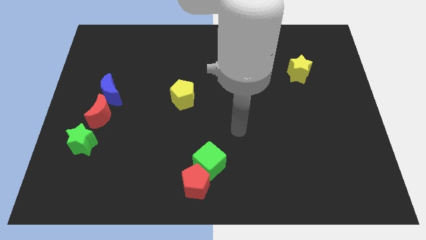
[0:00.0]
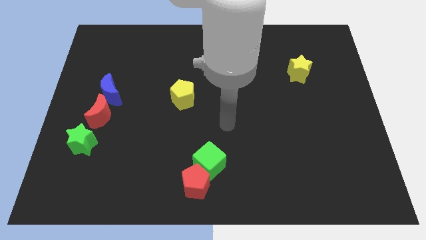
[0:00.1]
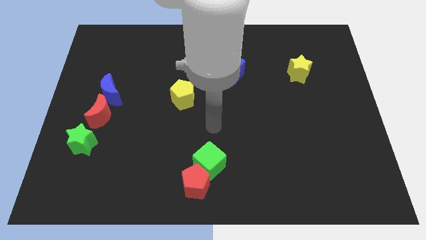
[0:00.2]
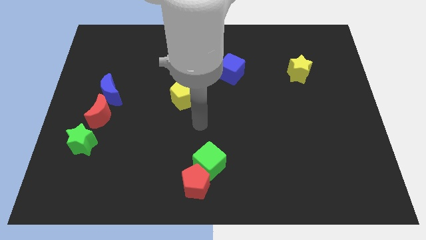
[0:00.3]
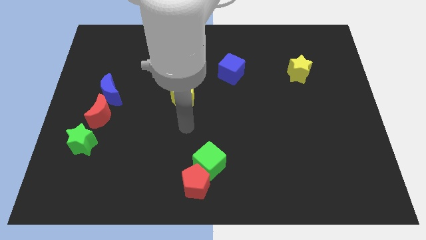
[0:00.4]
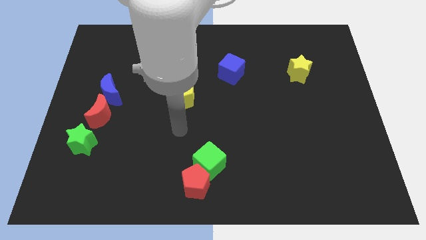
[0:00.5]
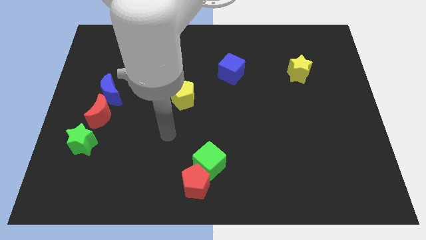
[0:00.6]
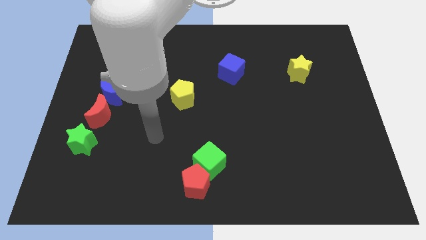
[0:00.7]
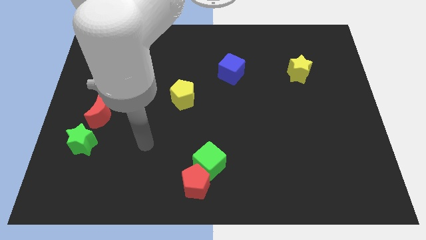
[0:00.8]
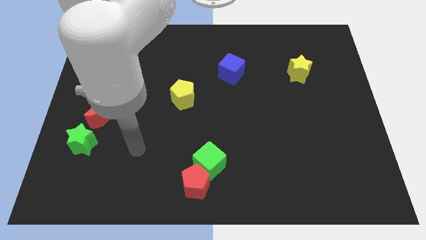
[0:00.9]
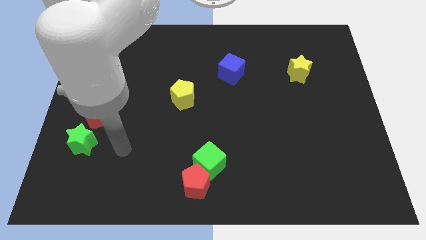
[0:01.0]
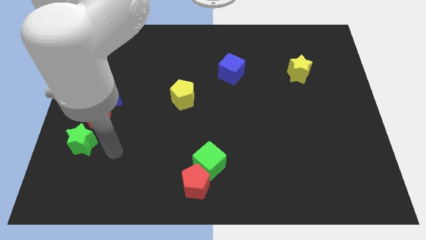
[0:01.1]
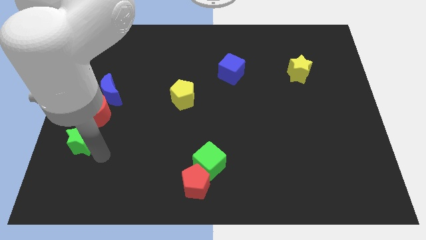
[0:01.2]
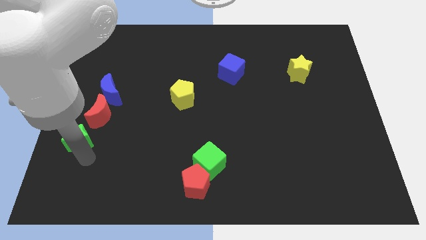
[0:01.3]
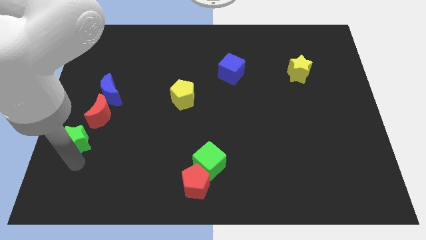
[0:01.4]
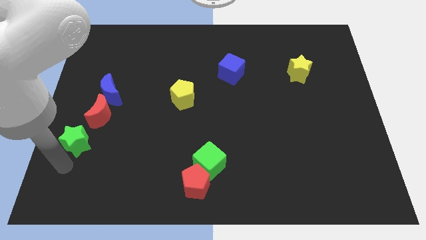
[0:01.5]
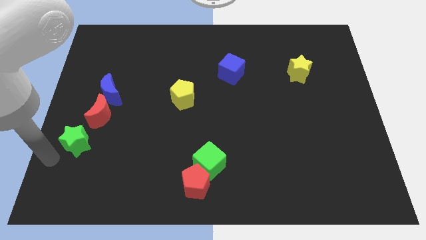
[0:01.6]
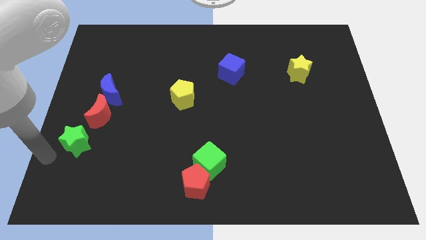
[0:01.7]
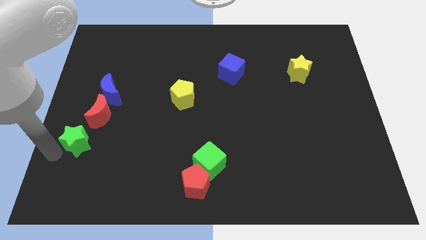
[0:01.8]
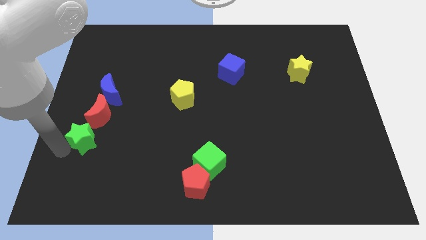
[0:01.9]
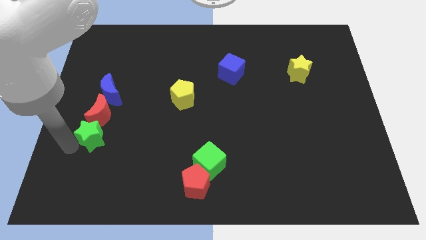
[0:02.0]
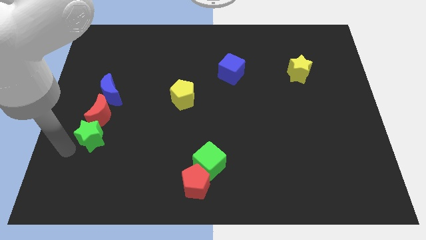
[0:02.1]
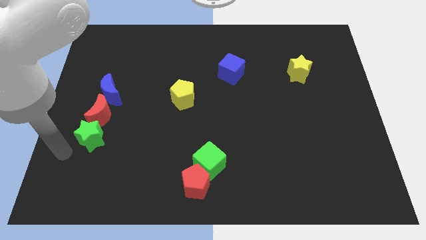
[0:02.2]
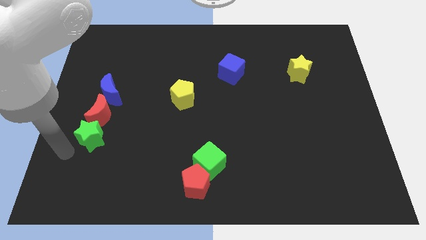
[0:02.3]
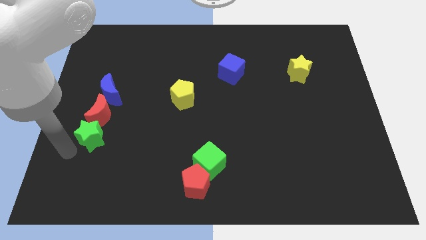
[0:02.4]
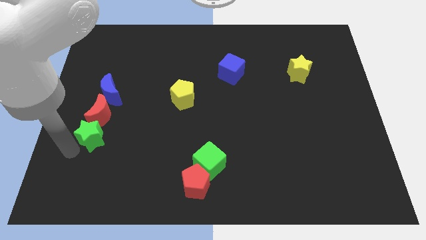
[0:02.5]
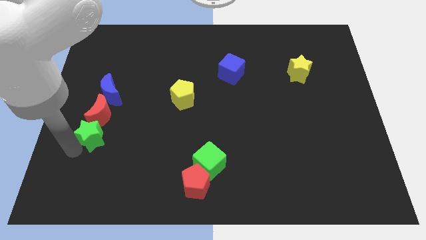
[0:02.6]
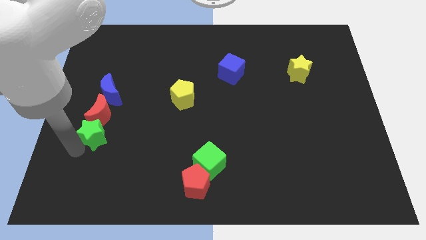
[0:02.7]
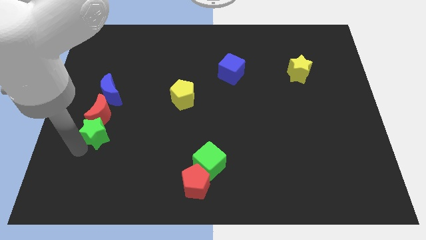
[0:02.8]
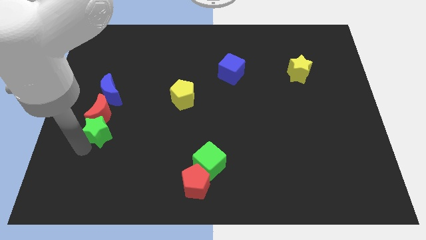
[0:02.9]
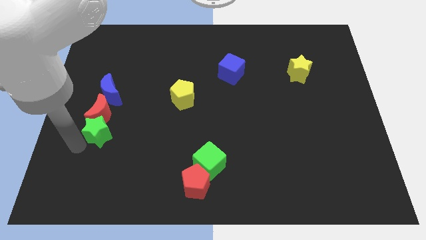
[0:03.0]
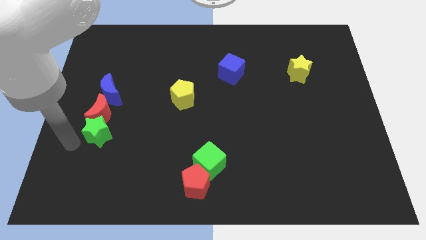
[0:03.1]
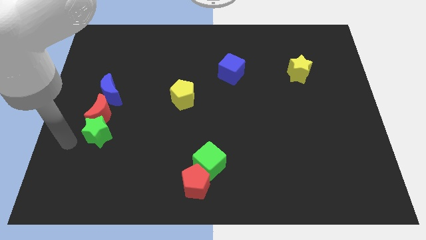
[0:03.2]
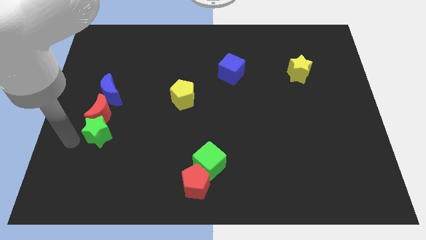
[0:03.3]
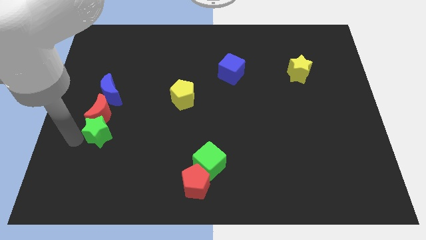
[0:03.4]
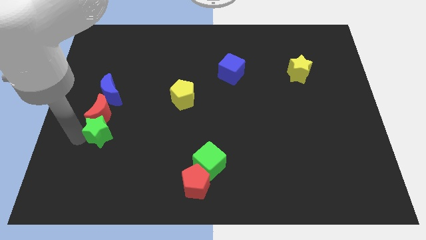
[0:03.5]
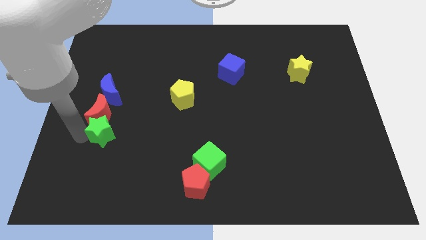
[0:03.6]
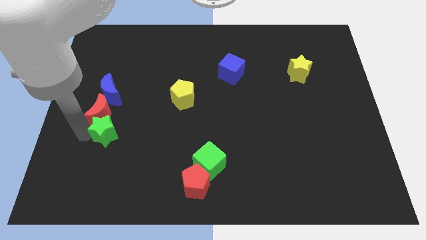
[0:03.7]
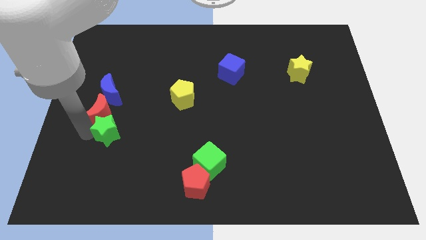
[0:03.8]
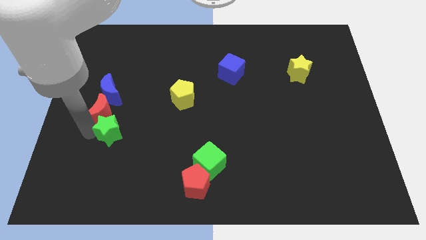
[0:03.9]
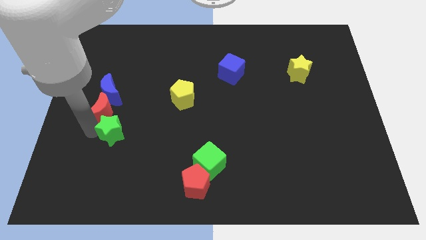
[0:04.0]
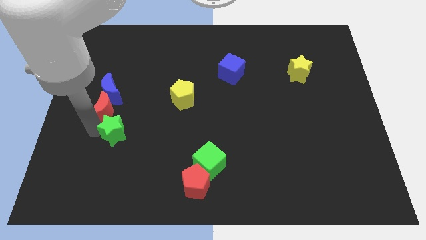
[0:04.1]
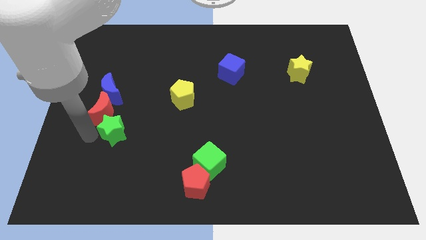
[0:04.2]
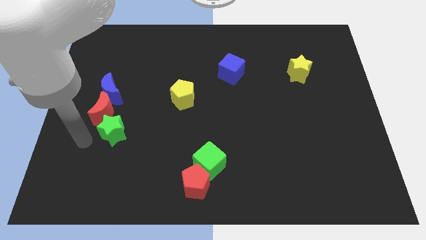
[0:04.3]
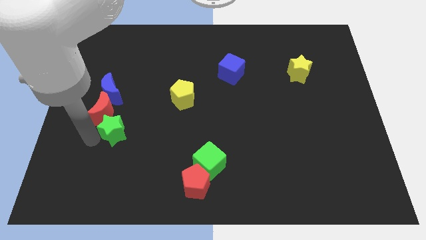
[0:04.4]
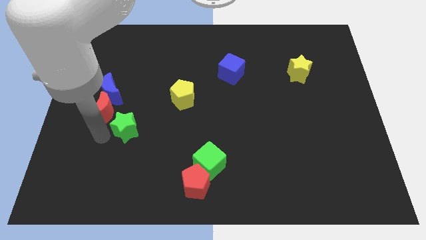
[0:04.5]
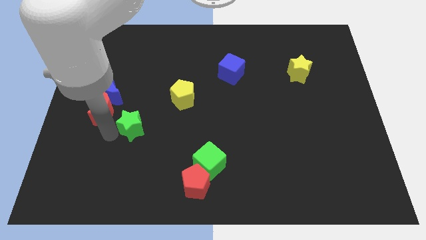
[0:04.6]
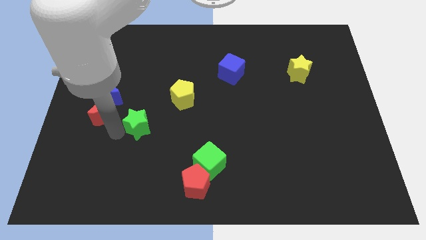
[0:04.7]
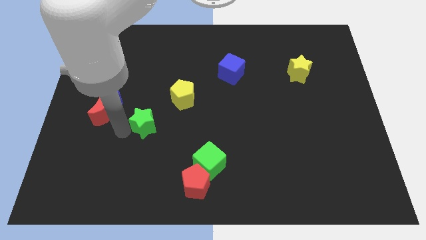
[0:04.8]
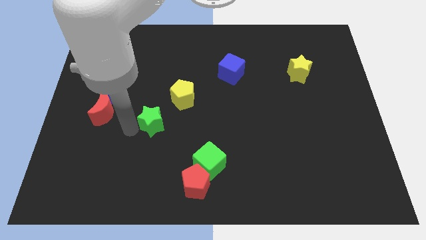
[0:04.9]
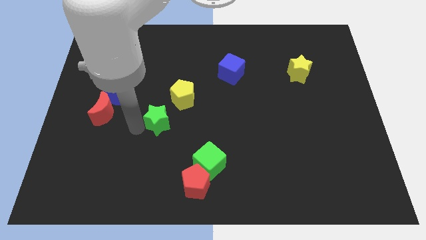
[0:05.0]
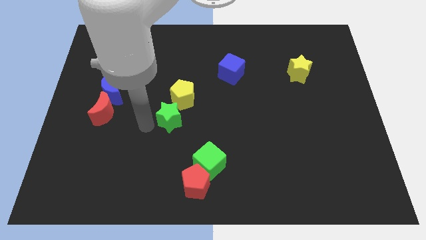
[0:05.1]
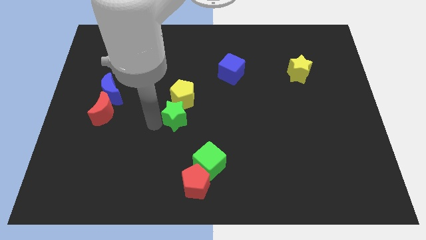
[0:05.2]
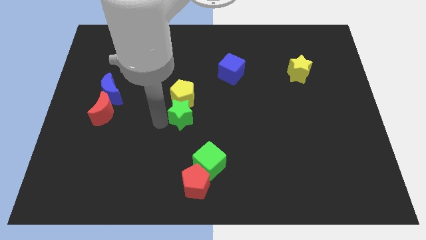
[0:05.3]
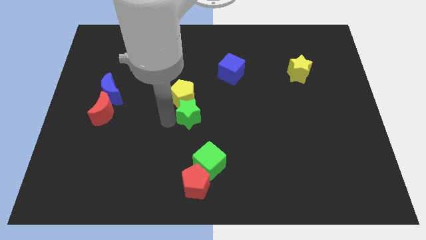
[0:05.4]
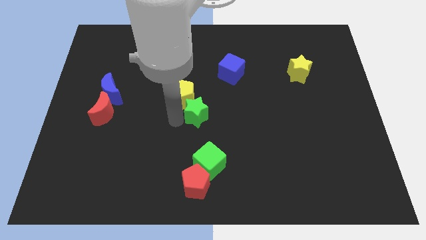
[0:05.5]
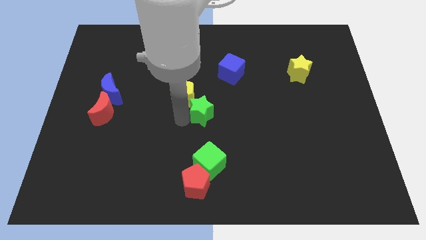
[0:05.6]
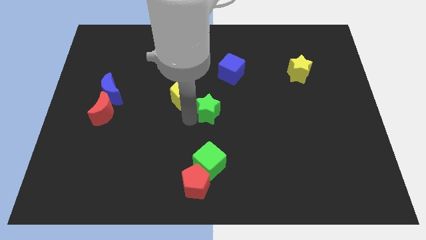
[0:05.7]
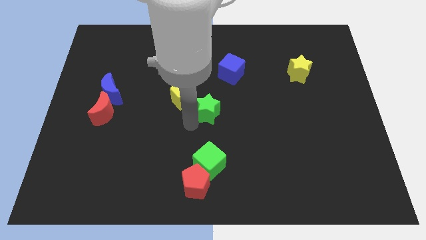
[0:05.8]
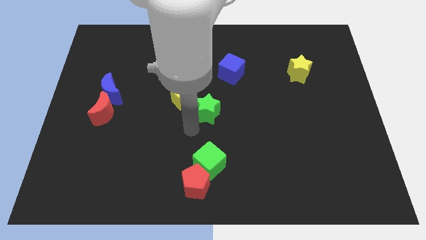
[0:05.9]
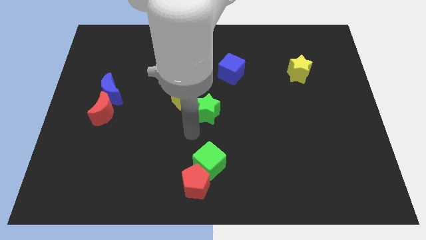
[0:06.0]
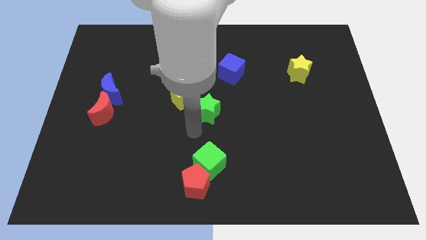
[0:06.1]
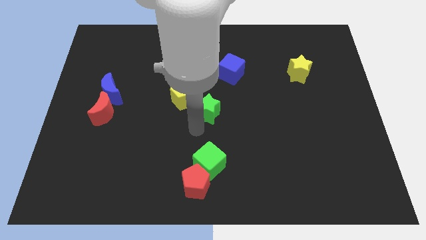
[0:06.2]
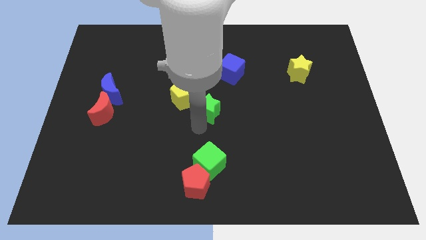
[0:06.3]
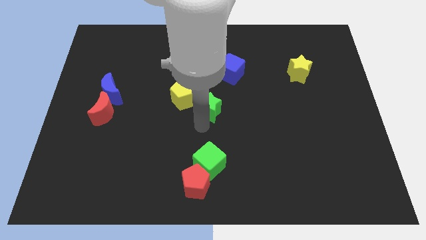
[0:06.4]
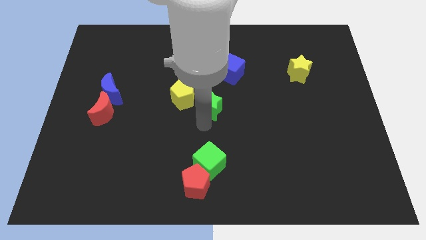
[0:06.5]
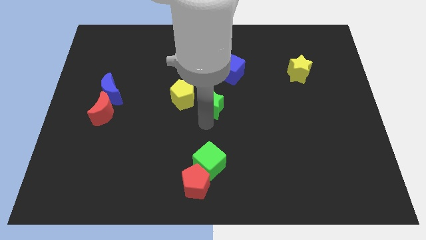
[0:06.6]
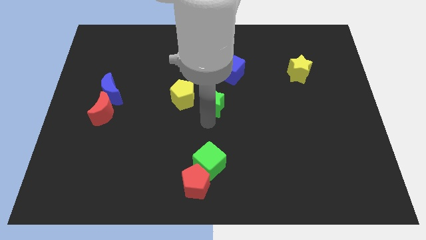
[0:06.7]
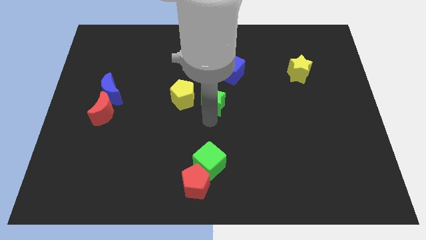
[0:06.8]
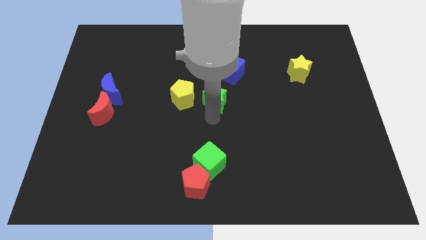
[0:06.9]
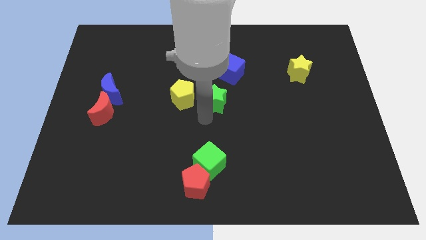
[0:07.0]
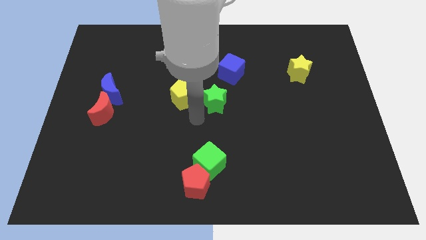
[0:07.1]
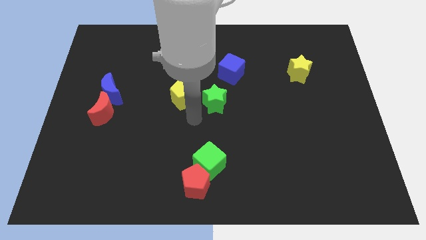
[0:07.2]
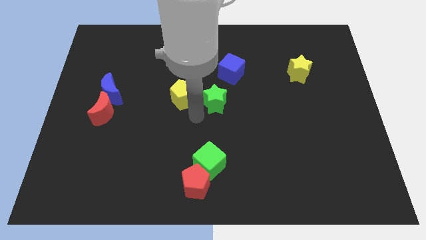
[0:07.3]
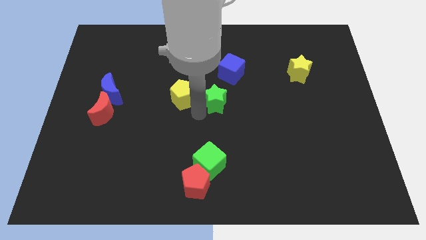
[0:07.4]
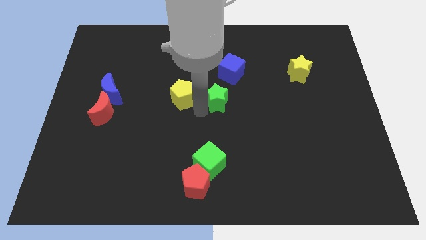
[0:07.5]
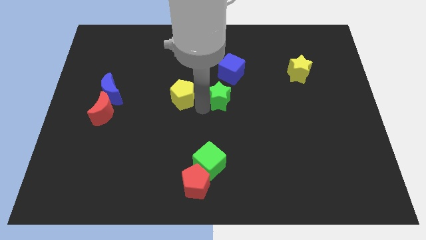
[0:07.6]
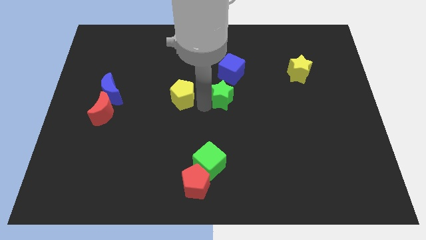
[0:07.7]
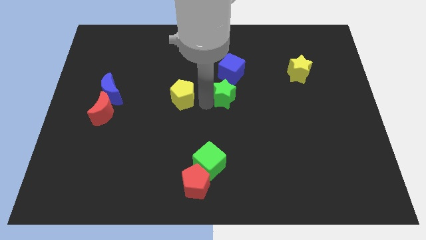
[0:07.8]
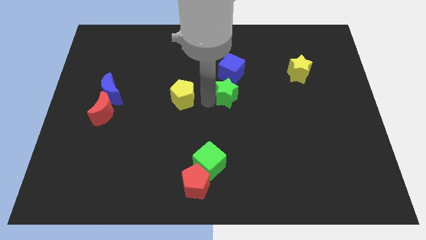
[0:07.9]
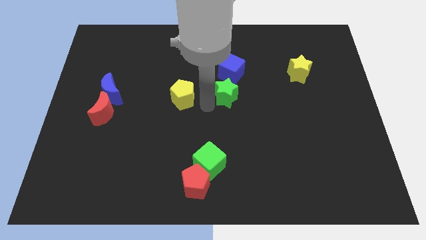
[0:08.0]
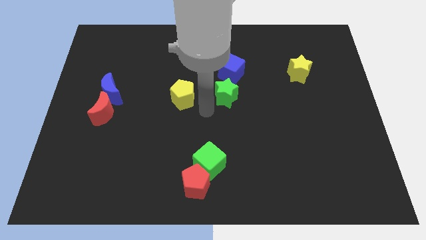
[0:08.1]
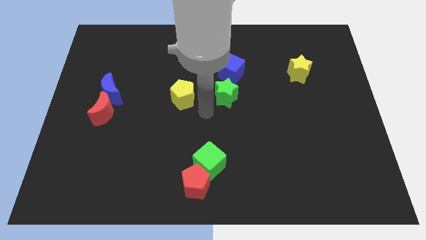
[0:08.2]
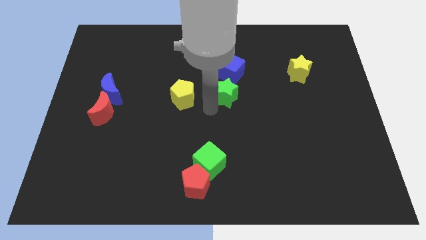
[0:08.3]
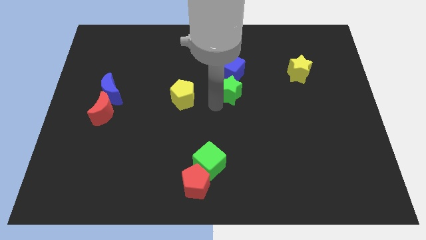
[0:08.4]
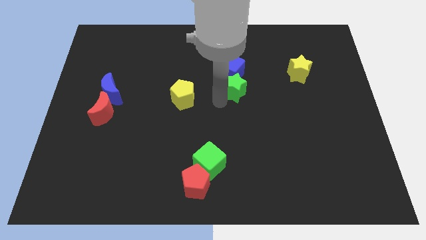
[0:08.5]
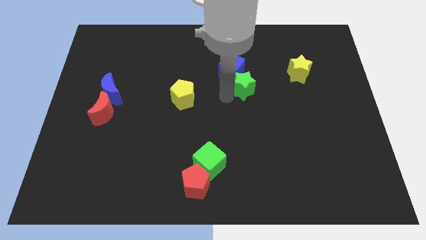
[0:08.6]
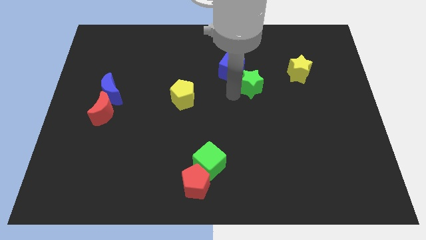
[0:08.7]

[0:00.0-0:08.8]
push the green star to the left side of the yellow star
